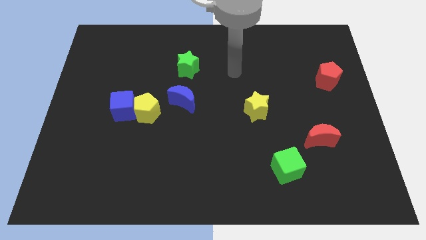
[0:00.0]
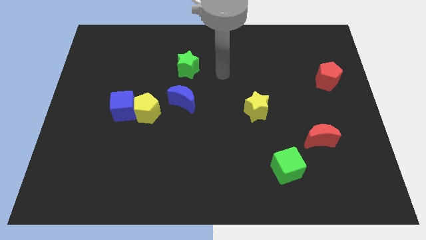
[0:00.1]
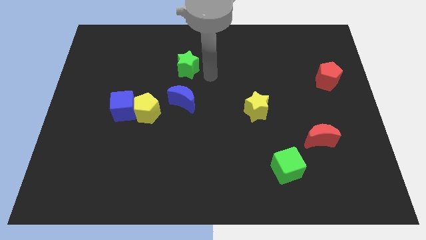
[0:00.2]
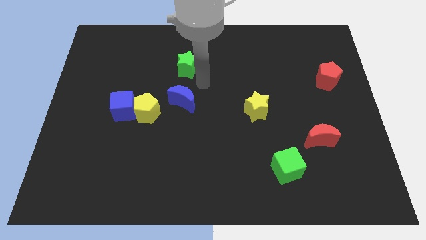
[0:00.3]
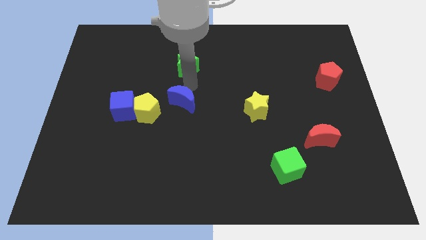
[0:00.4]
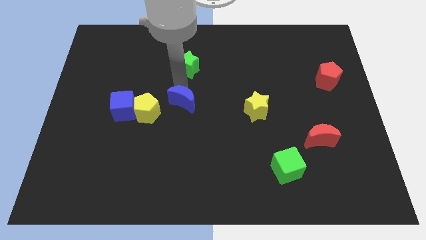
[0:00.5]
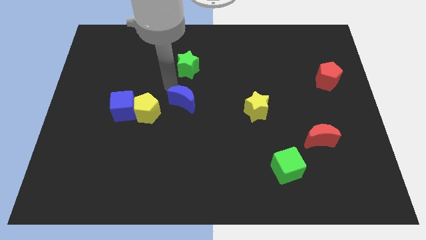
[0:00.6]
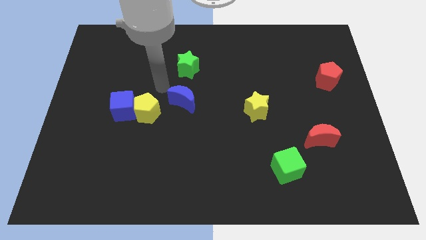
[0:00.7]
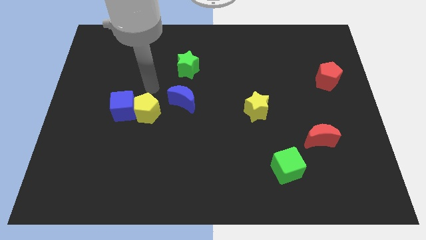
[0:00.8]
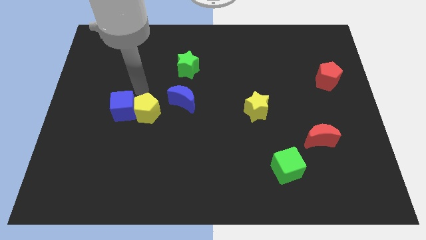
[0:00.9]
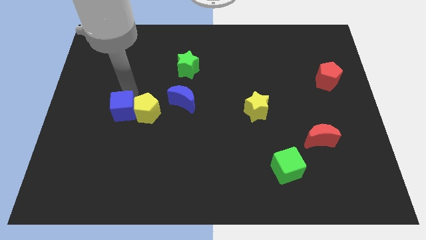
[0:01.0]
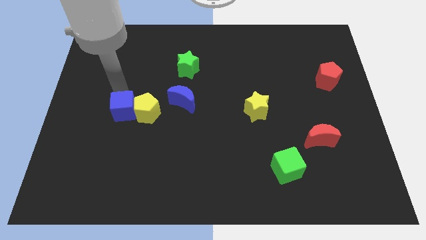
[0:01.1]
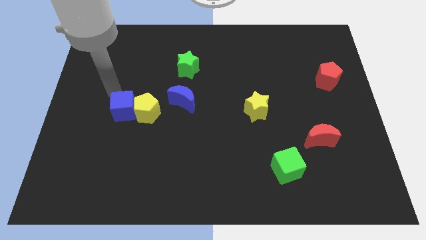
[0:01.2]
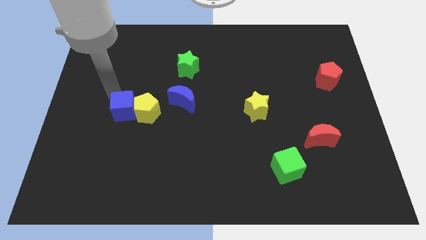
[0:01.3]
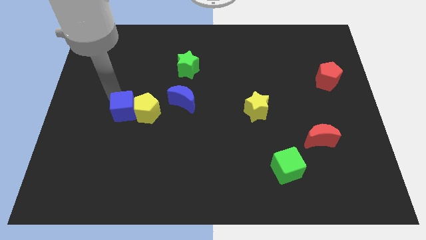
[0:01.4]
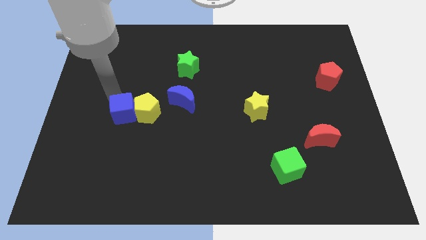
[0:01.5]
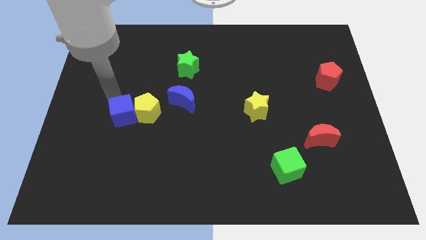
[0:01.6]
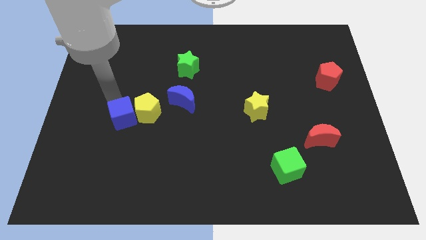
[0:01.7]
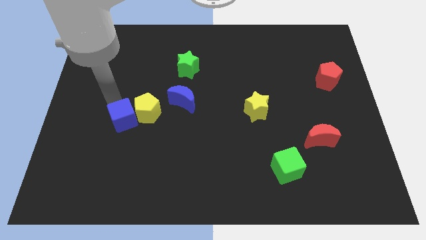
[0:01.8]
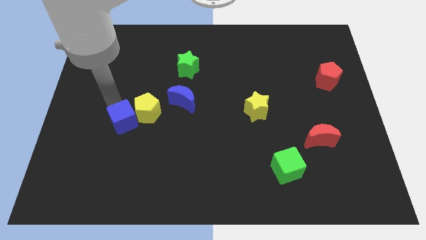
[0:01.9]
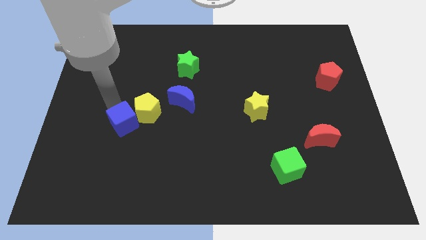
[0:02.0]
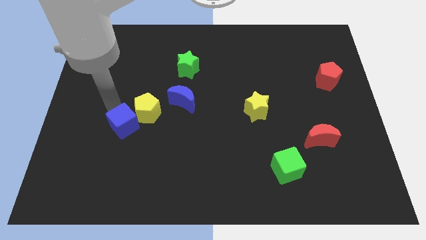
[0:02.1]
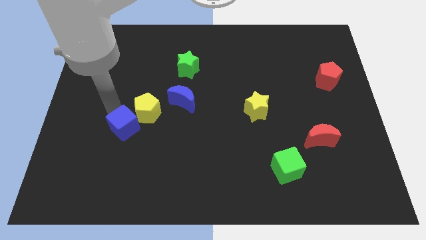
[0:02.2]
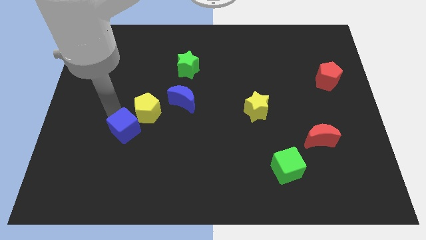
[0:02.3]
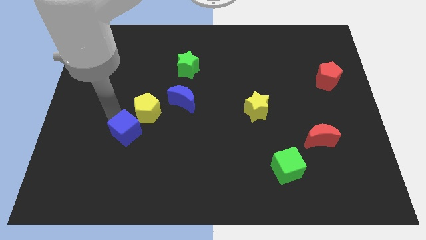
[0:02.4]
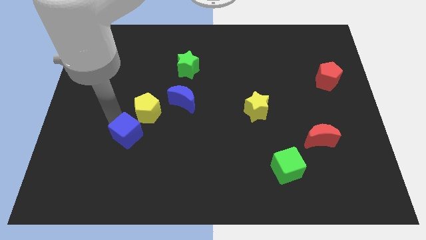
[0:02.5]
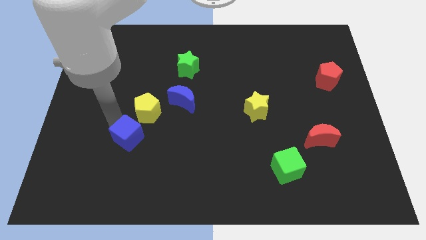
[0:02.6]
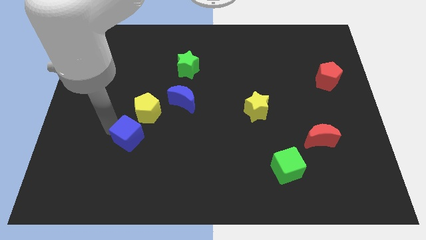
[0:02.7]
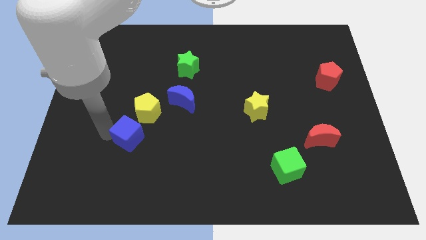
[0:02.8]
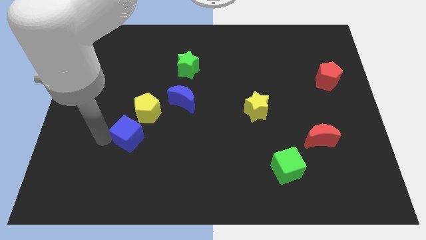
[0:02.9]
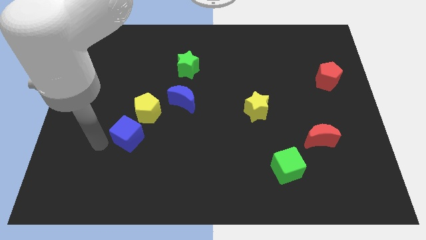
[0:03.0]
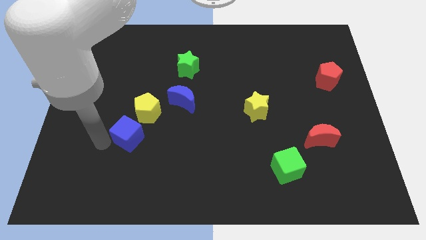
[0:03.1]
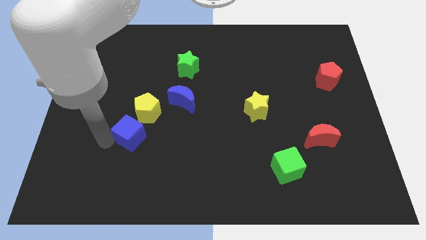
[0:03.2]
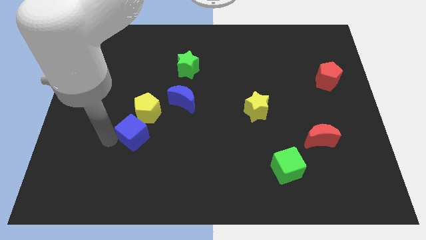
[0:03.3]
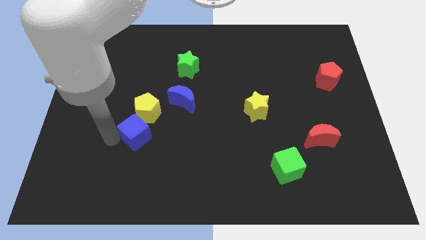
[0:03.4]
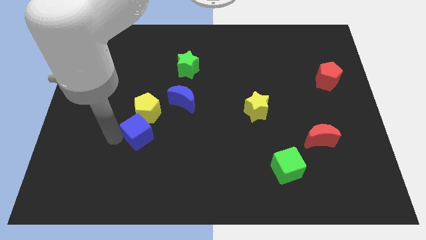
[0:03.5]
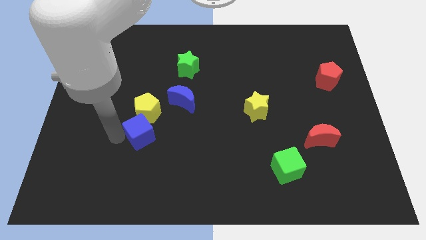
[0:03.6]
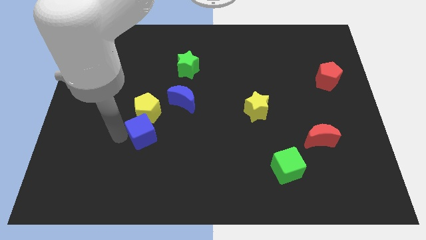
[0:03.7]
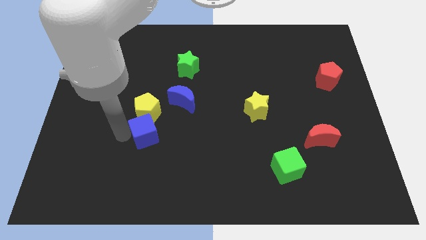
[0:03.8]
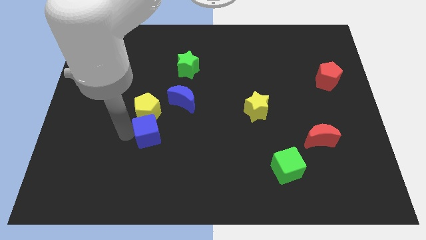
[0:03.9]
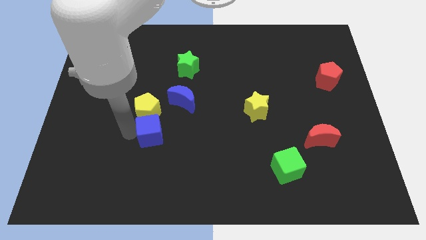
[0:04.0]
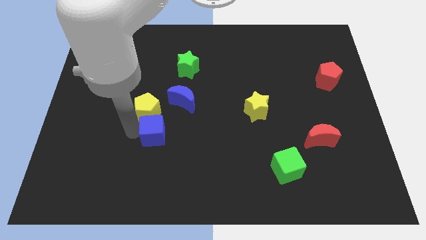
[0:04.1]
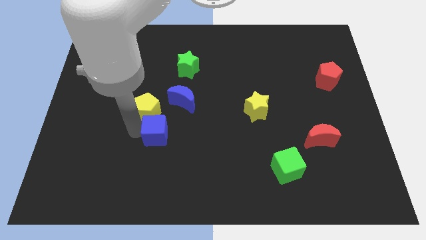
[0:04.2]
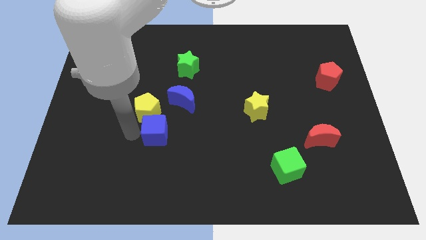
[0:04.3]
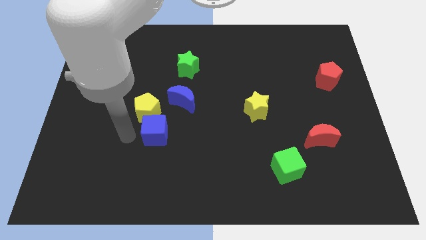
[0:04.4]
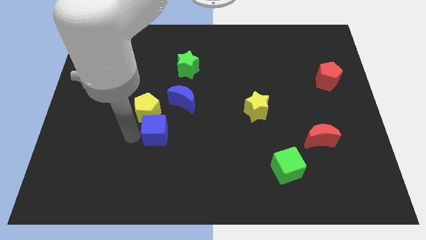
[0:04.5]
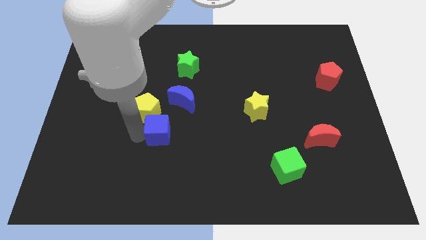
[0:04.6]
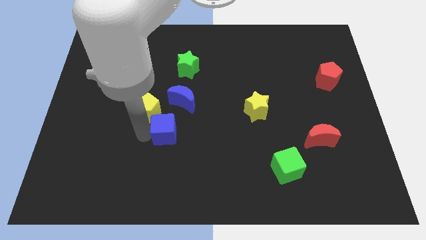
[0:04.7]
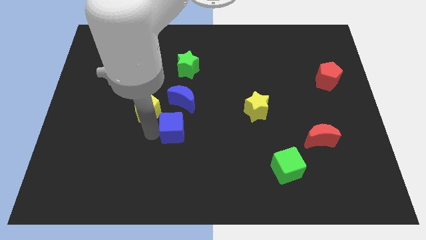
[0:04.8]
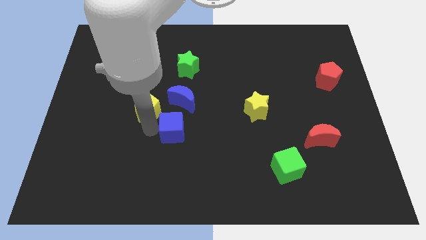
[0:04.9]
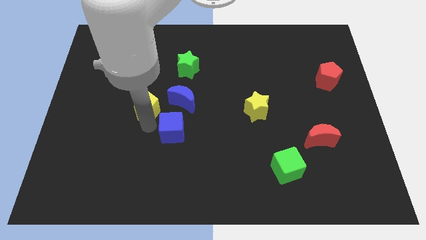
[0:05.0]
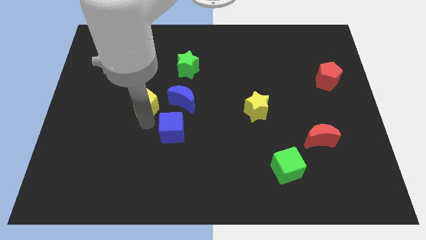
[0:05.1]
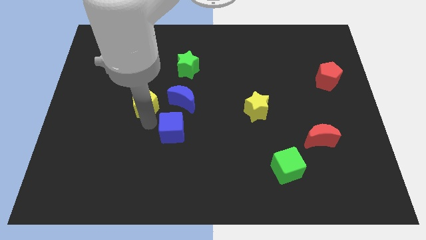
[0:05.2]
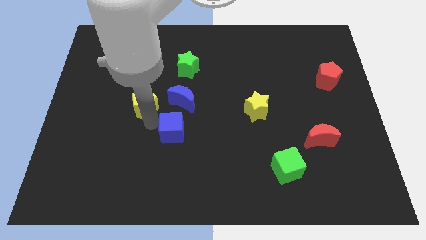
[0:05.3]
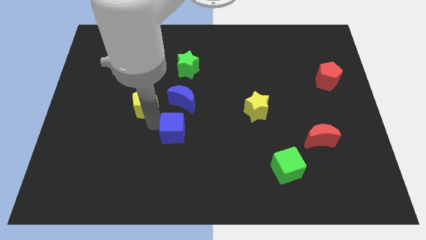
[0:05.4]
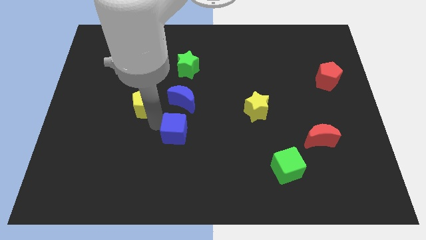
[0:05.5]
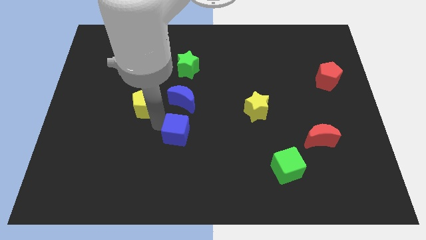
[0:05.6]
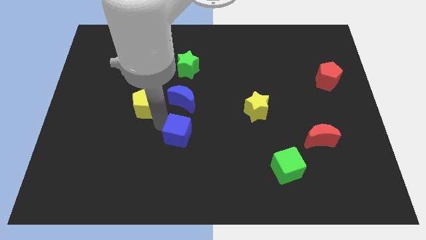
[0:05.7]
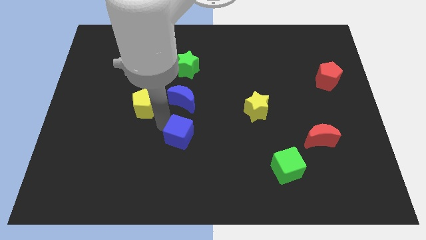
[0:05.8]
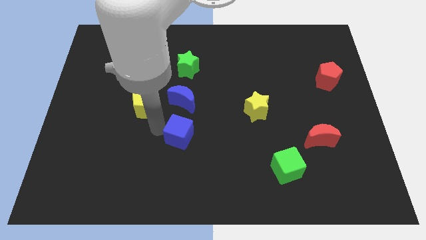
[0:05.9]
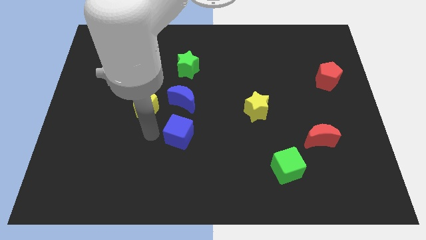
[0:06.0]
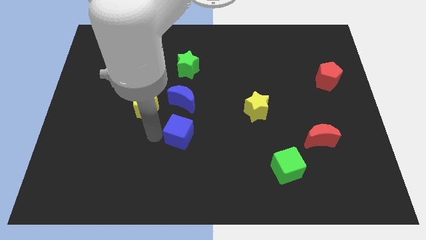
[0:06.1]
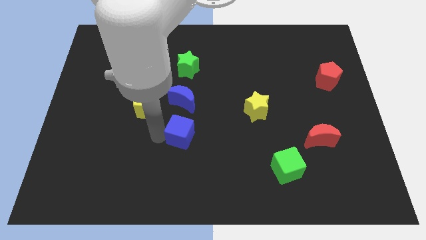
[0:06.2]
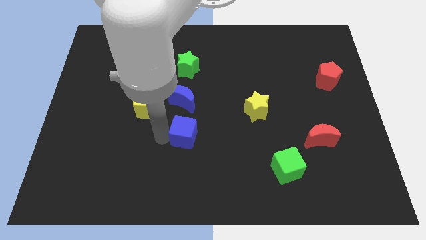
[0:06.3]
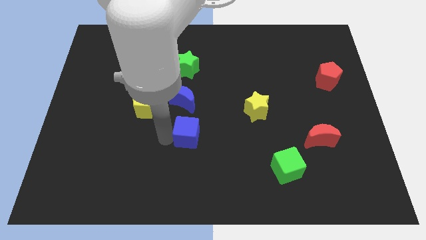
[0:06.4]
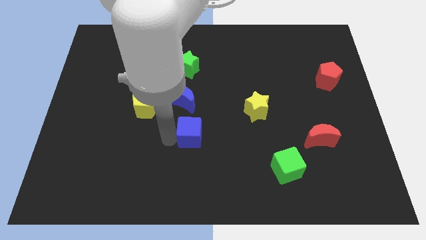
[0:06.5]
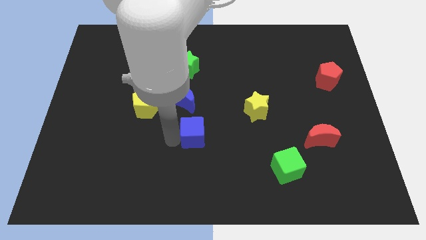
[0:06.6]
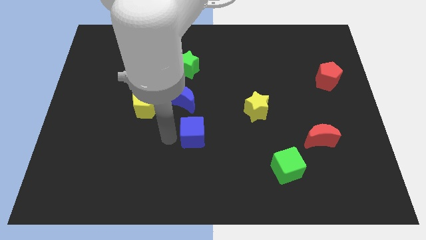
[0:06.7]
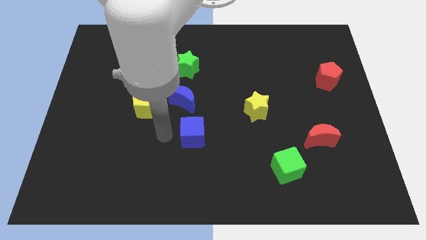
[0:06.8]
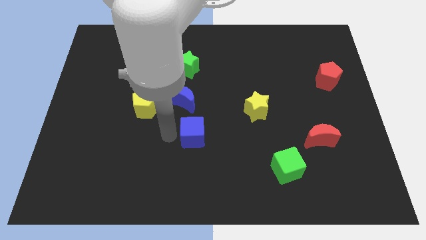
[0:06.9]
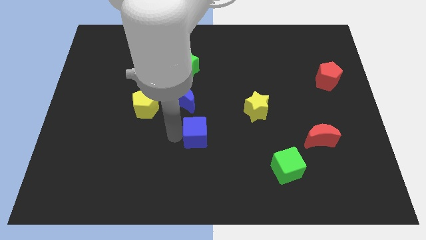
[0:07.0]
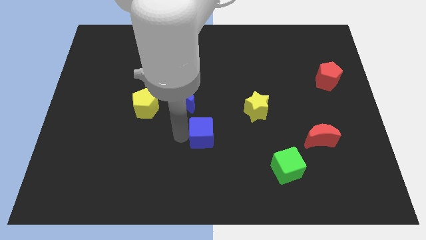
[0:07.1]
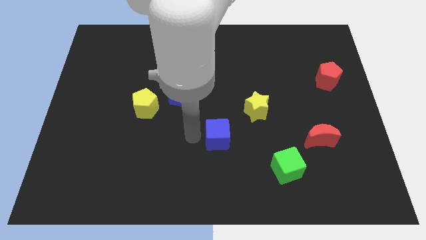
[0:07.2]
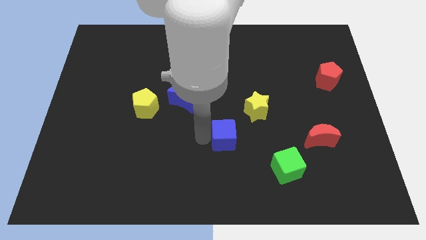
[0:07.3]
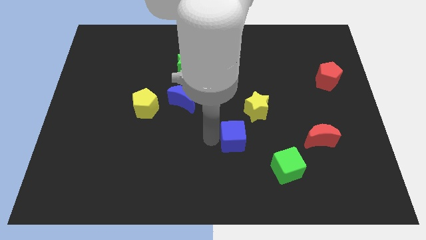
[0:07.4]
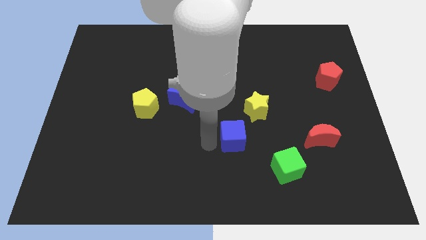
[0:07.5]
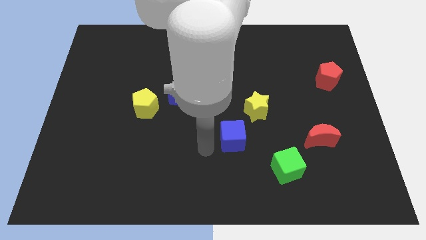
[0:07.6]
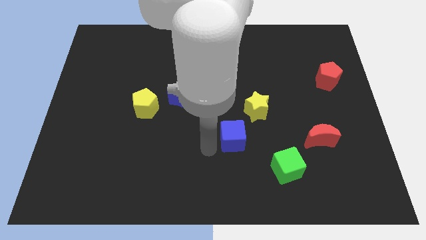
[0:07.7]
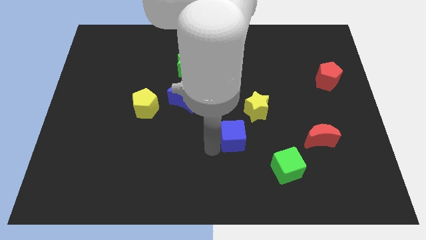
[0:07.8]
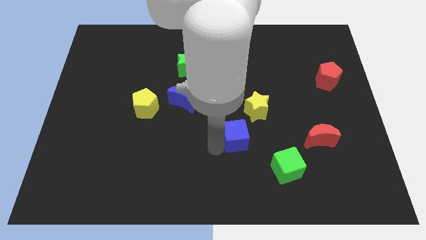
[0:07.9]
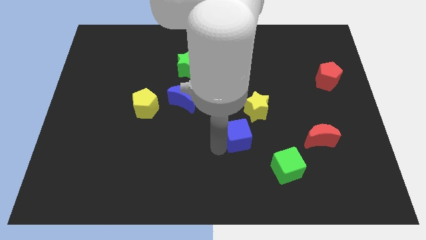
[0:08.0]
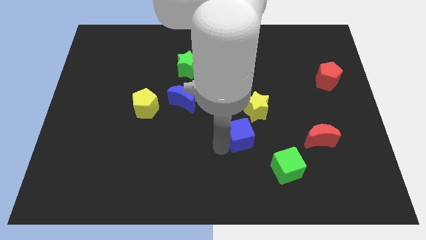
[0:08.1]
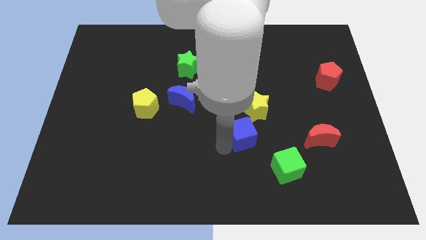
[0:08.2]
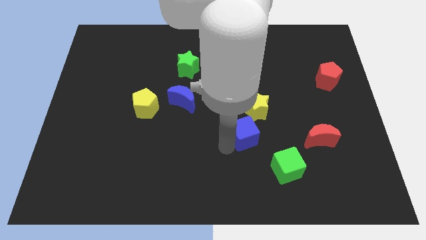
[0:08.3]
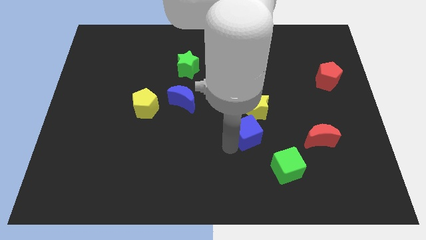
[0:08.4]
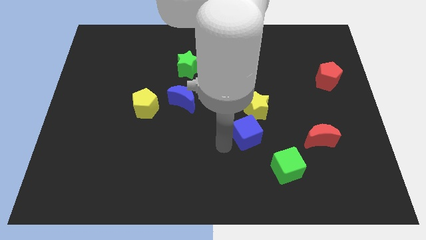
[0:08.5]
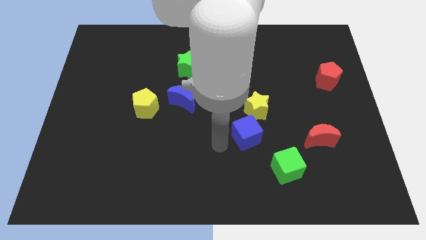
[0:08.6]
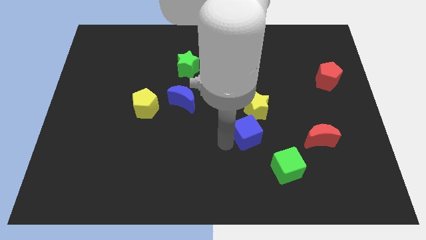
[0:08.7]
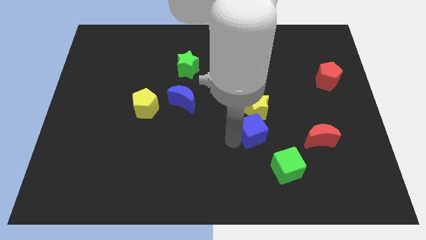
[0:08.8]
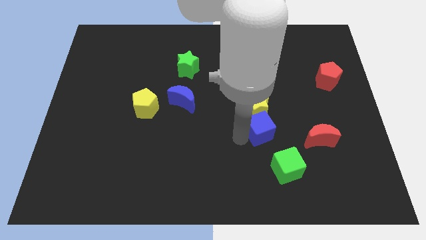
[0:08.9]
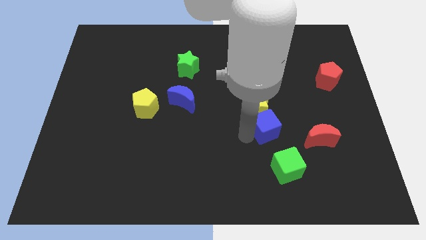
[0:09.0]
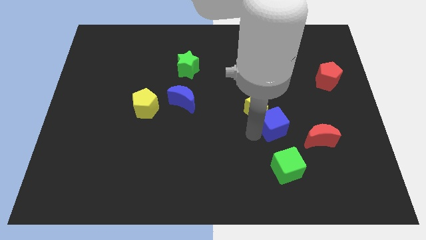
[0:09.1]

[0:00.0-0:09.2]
push the blue cube to the top left of the red moon
